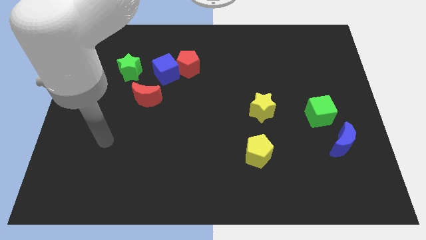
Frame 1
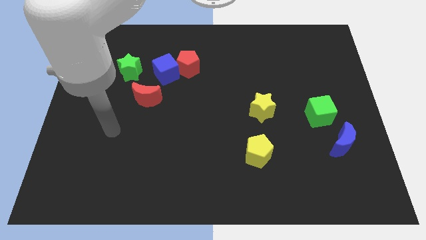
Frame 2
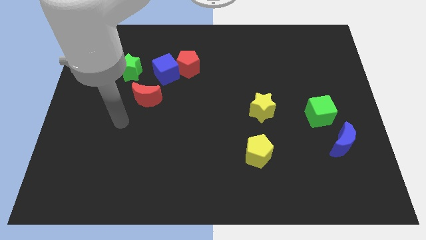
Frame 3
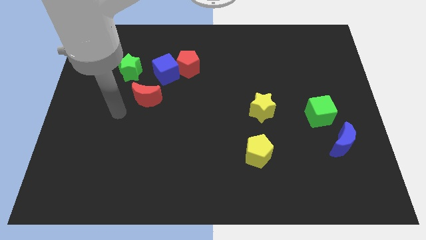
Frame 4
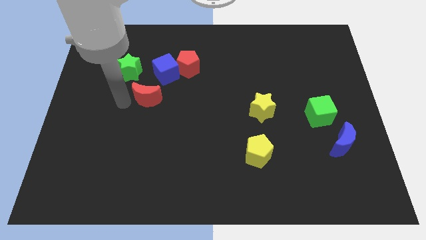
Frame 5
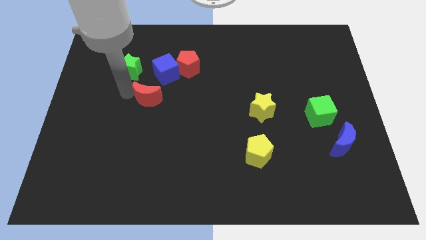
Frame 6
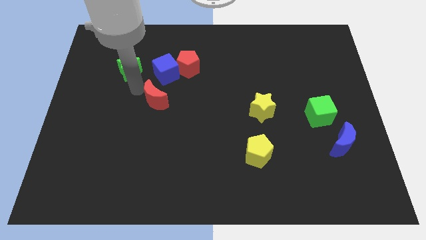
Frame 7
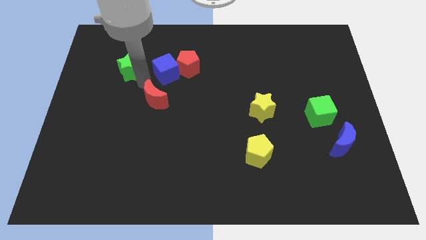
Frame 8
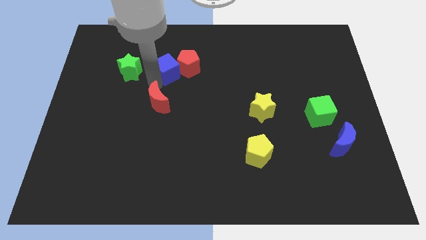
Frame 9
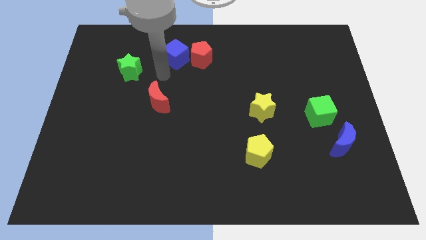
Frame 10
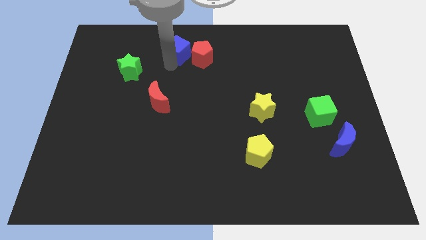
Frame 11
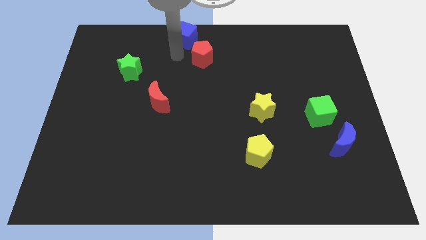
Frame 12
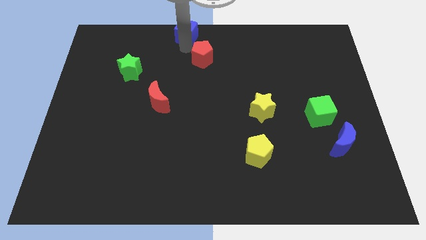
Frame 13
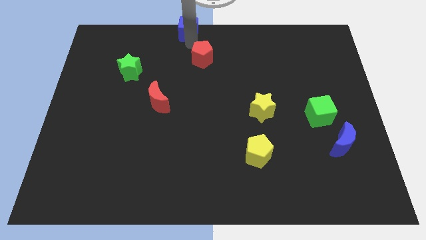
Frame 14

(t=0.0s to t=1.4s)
move the red pentagon away from the blue cube

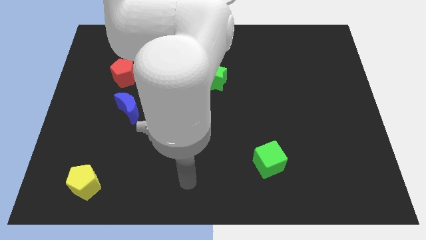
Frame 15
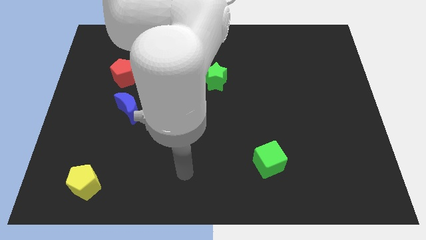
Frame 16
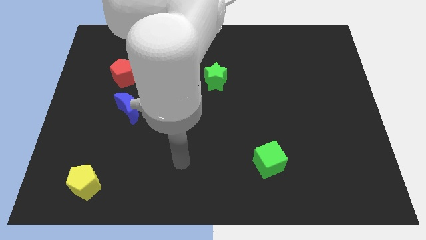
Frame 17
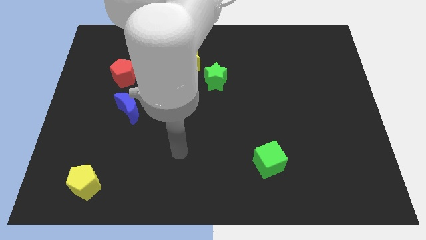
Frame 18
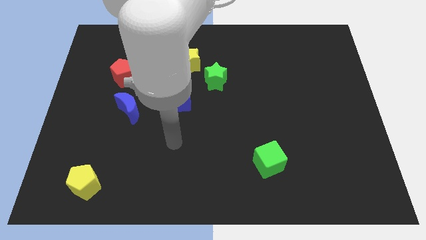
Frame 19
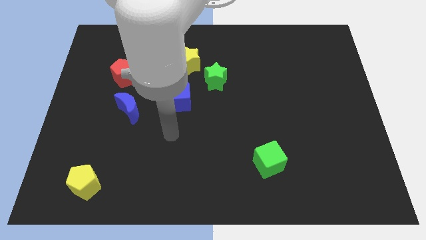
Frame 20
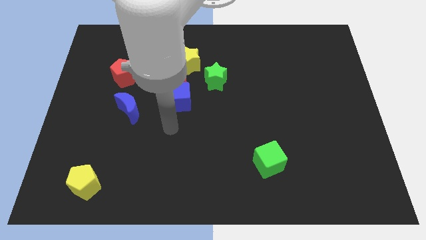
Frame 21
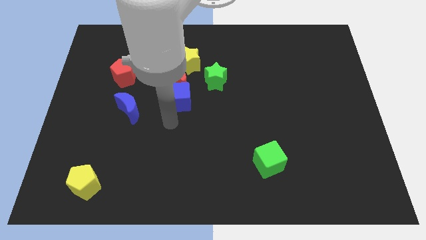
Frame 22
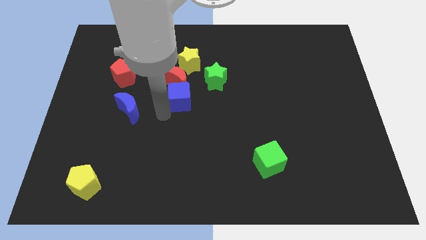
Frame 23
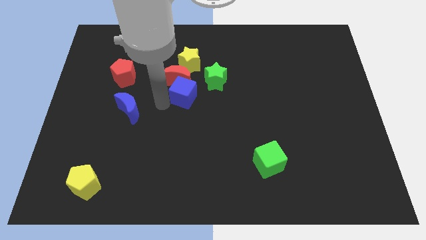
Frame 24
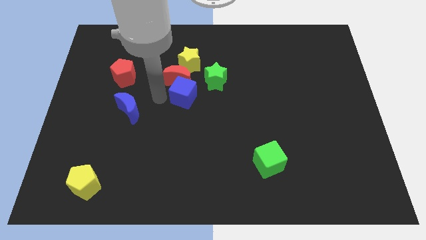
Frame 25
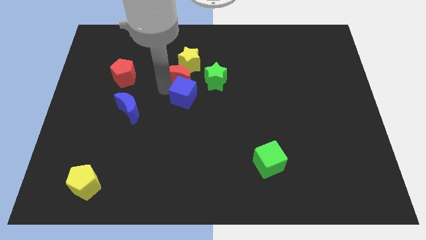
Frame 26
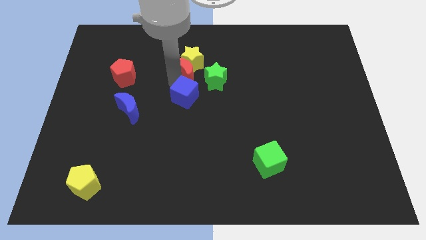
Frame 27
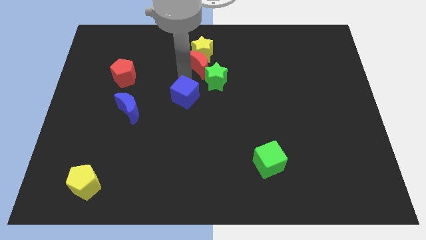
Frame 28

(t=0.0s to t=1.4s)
separate the blue cube from the red moon

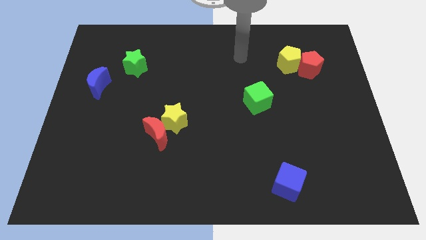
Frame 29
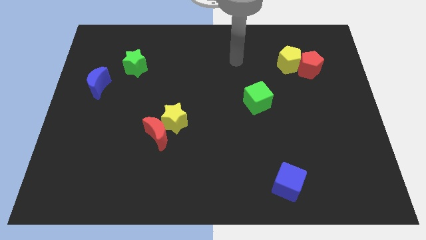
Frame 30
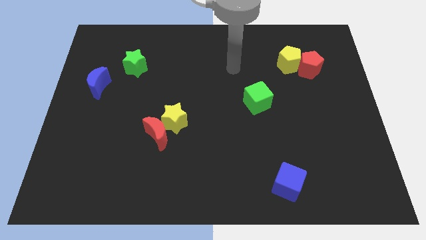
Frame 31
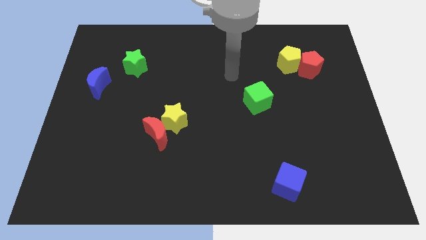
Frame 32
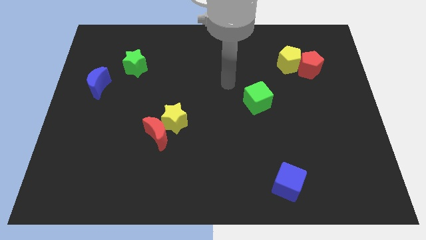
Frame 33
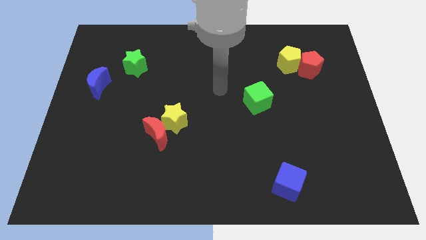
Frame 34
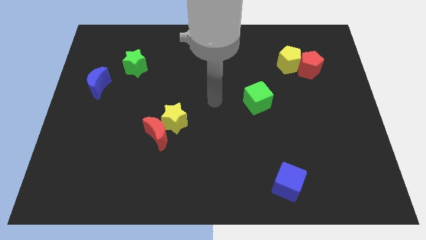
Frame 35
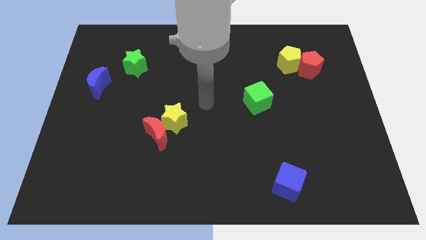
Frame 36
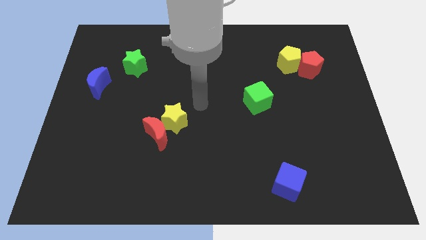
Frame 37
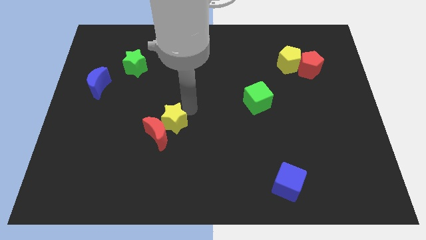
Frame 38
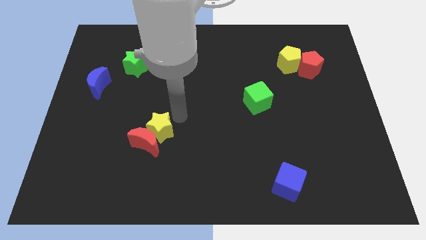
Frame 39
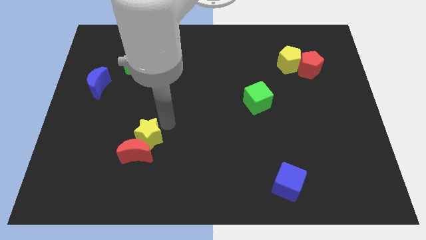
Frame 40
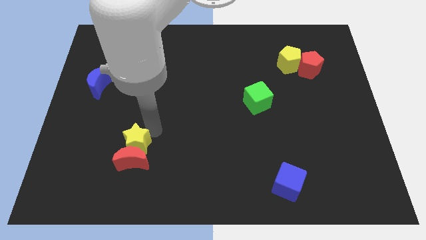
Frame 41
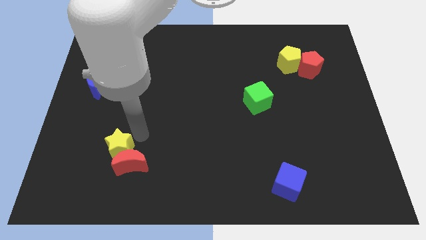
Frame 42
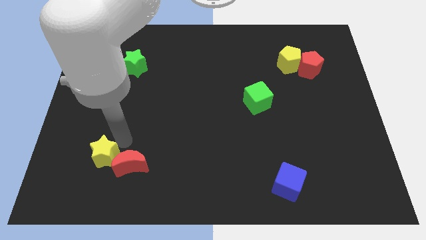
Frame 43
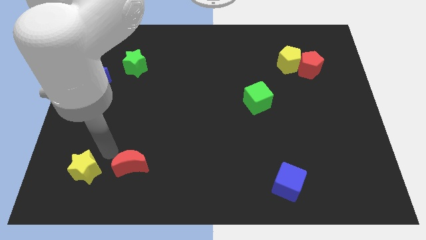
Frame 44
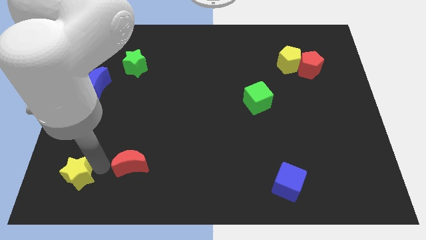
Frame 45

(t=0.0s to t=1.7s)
pull the red moon apart from the yellow star

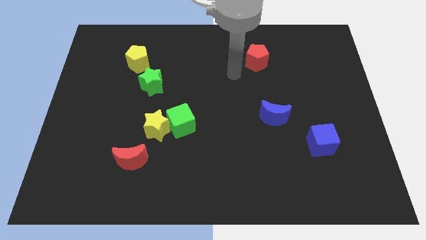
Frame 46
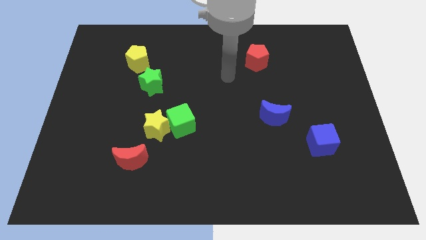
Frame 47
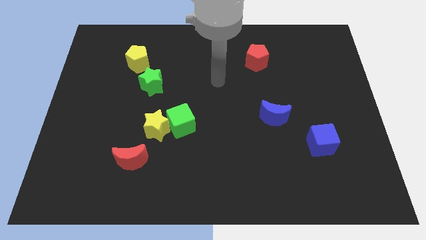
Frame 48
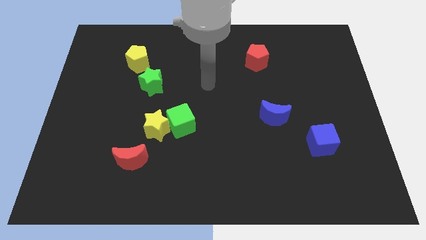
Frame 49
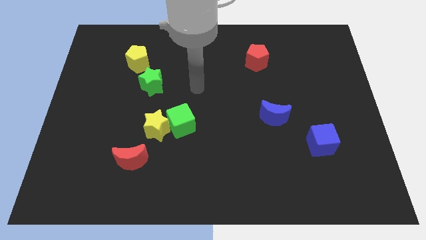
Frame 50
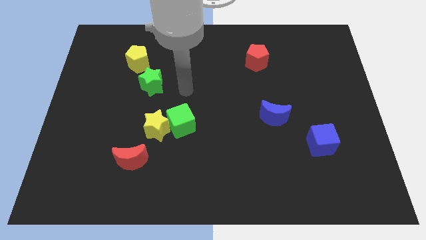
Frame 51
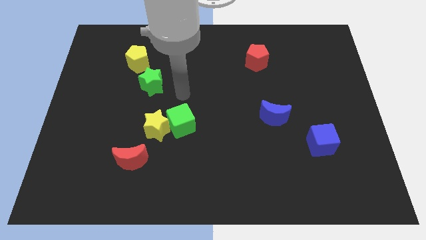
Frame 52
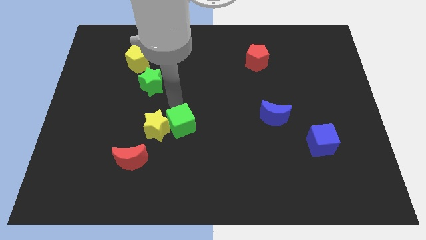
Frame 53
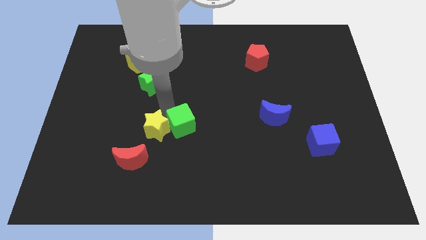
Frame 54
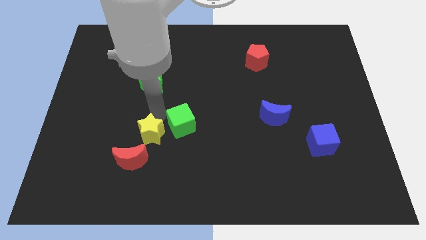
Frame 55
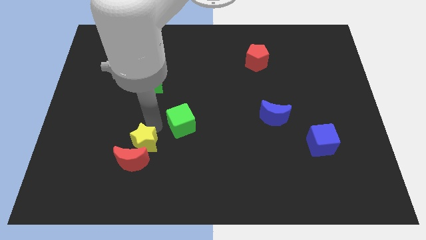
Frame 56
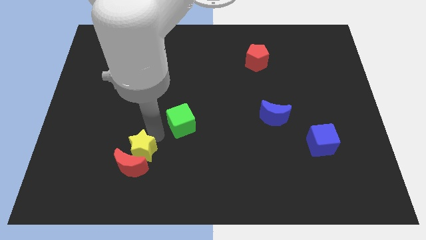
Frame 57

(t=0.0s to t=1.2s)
move the green cube away from the yellow star

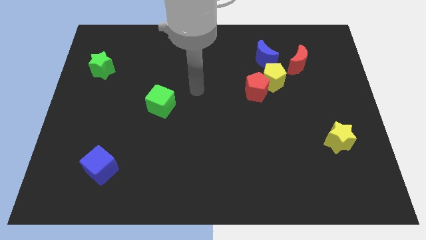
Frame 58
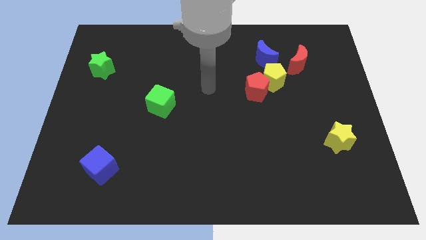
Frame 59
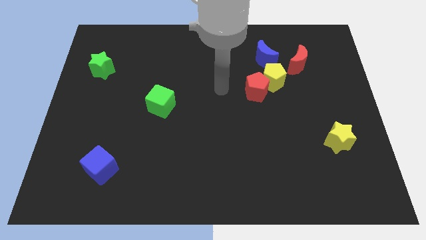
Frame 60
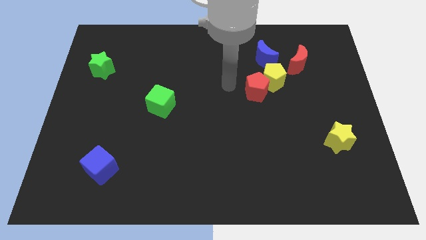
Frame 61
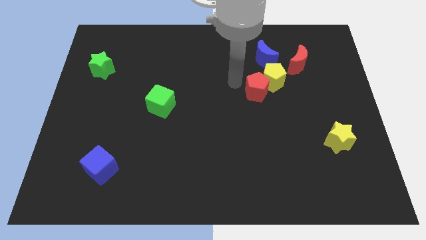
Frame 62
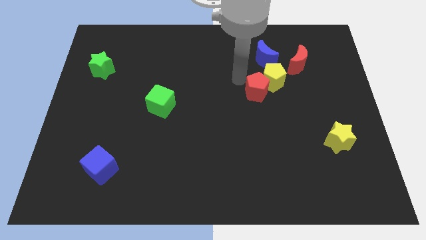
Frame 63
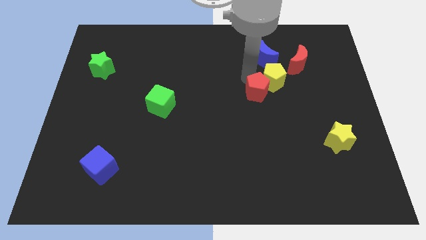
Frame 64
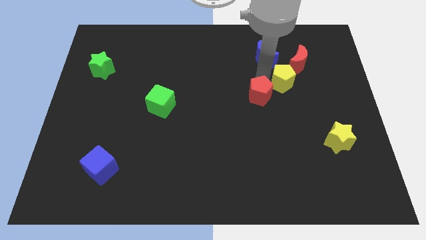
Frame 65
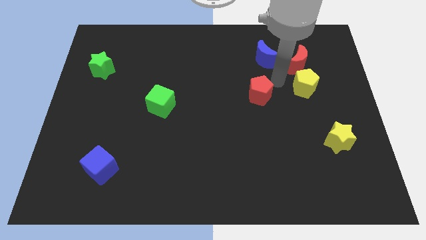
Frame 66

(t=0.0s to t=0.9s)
move the red pentagon away from the yellow pentagon

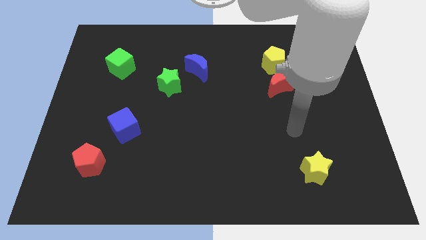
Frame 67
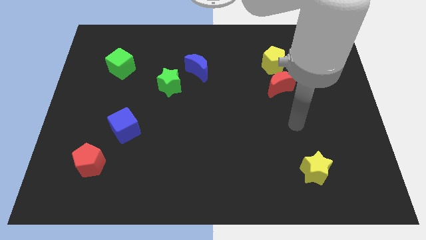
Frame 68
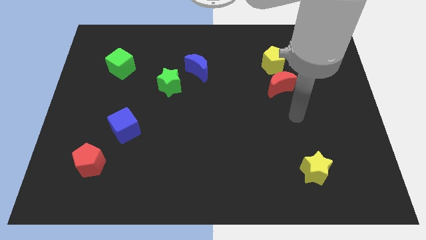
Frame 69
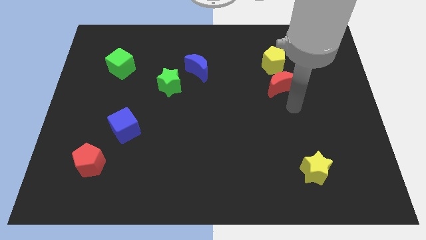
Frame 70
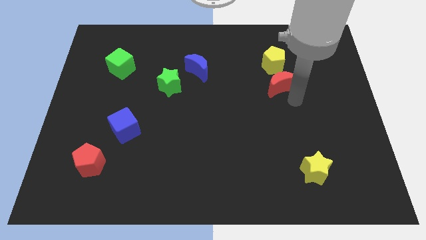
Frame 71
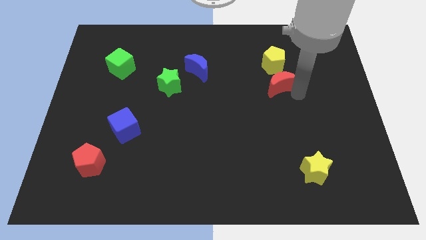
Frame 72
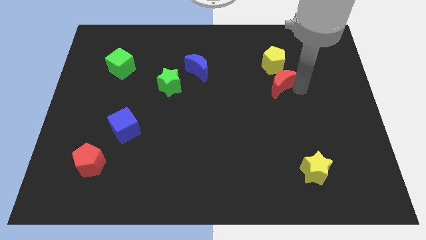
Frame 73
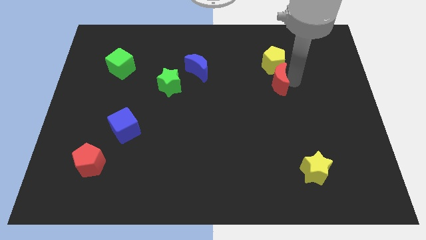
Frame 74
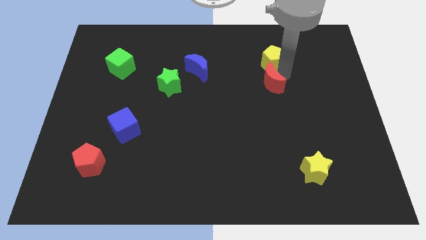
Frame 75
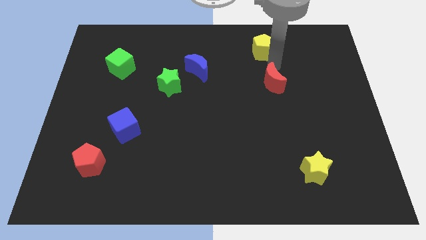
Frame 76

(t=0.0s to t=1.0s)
separate the red moon from the yellow pentagon

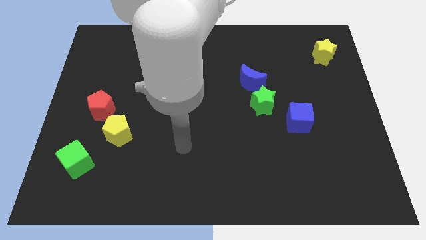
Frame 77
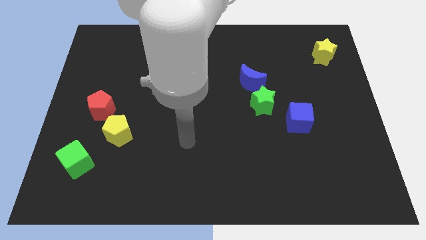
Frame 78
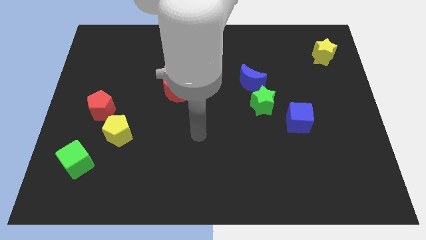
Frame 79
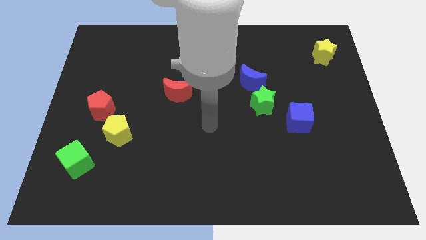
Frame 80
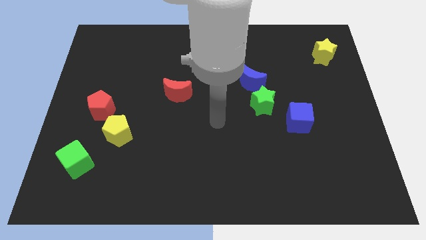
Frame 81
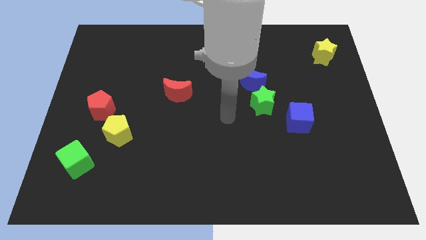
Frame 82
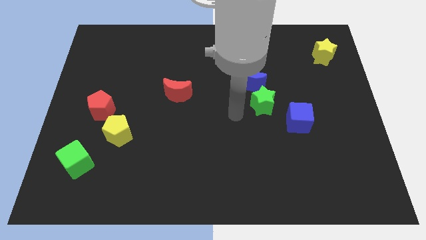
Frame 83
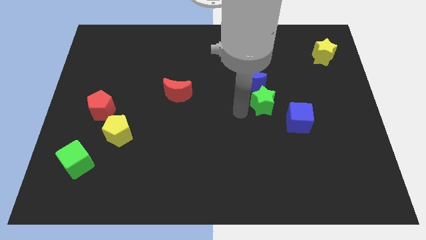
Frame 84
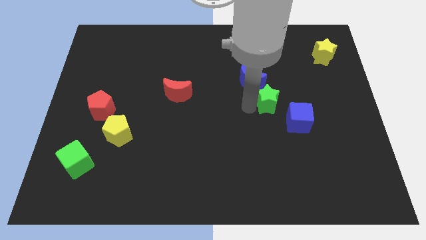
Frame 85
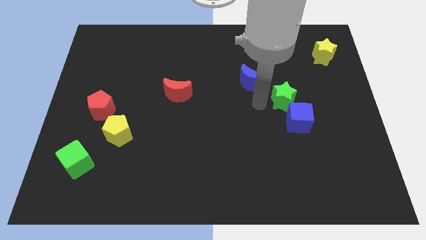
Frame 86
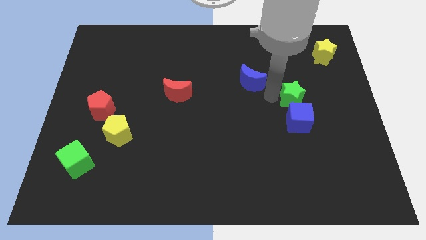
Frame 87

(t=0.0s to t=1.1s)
pull the blue moon apart from the green star

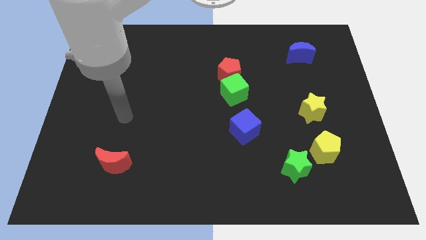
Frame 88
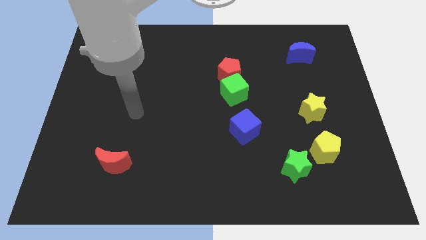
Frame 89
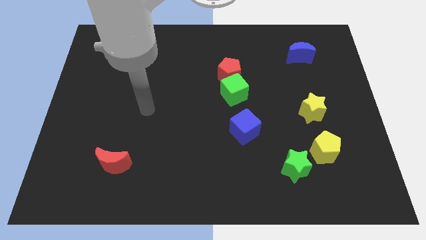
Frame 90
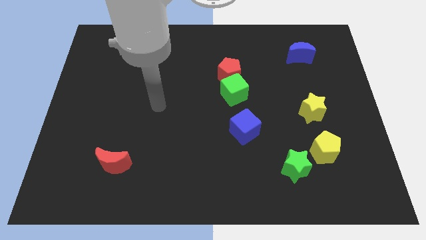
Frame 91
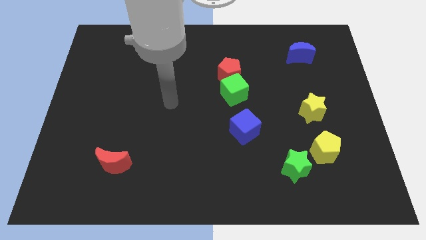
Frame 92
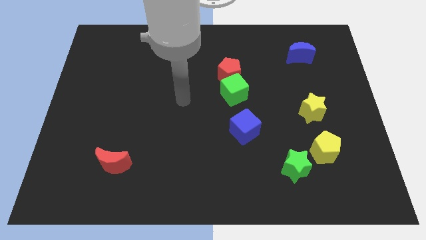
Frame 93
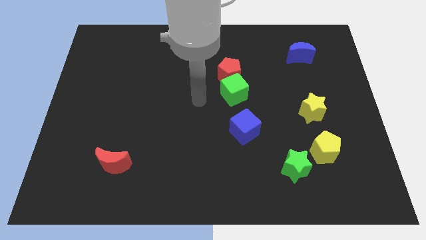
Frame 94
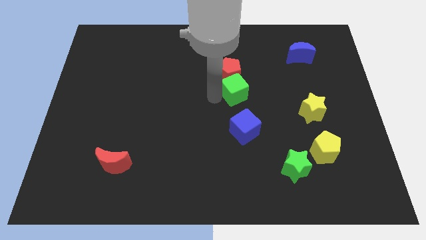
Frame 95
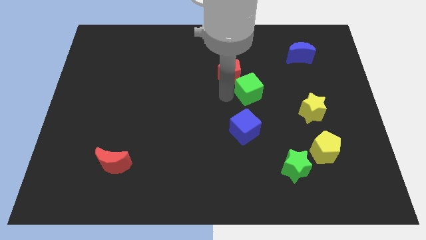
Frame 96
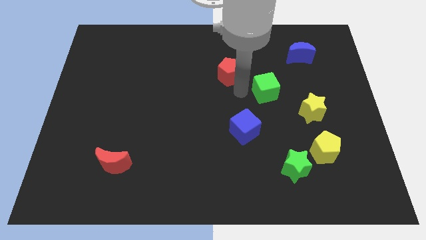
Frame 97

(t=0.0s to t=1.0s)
separate the red pentagon from the green cube
